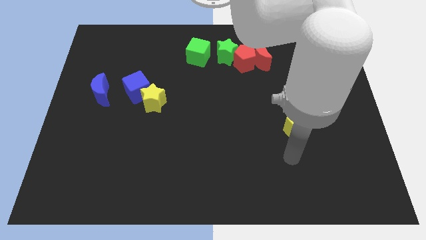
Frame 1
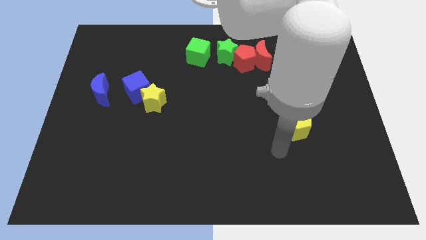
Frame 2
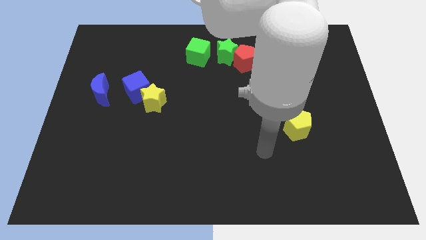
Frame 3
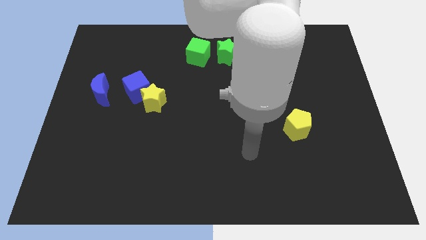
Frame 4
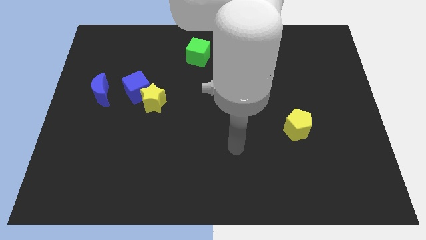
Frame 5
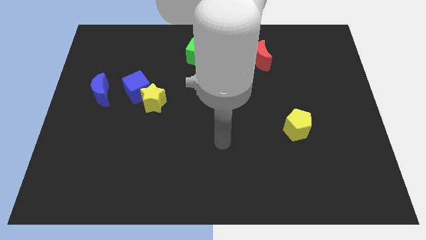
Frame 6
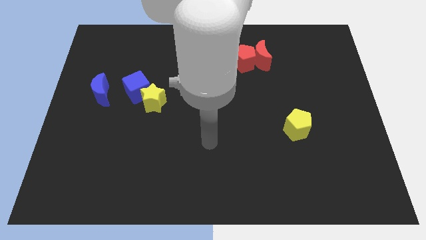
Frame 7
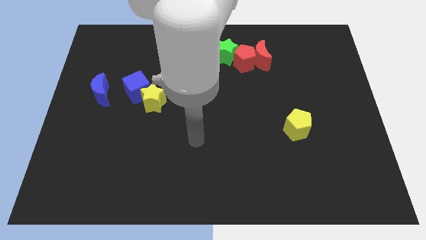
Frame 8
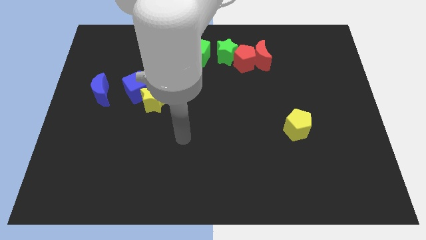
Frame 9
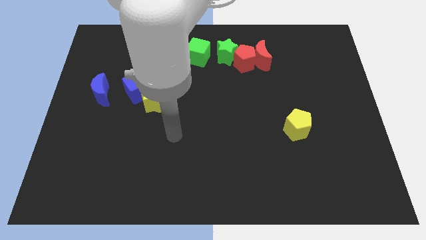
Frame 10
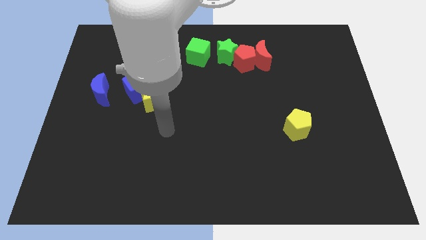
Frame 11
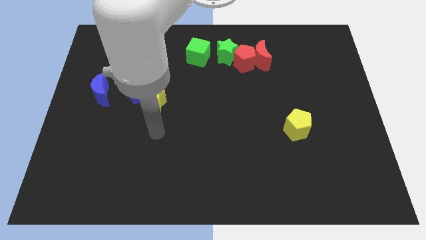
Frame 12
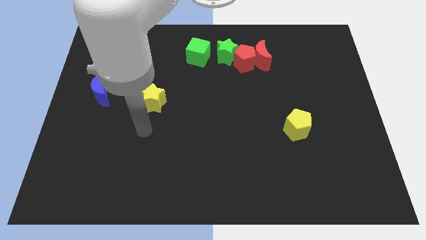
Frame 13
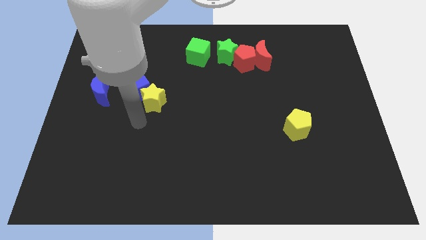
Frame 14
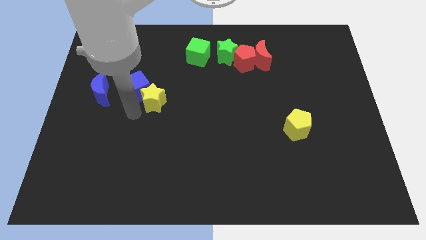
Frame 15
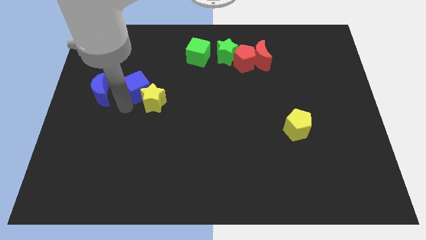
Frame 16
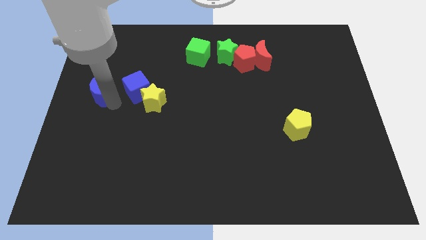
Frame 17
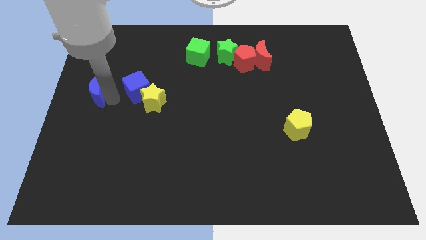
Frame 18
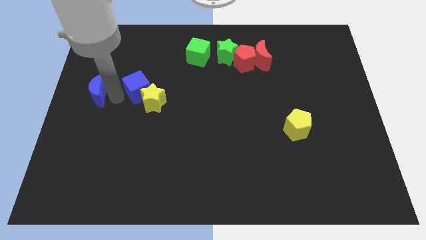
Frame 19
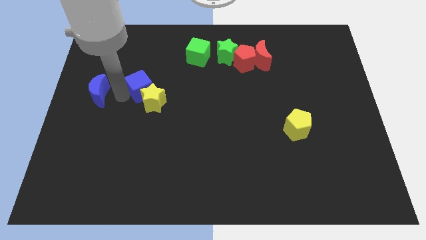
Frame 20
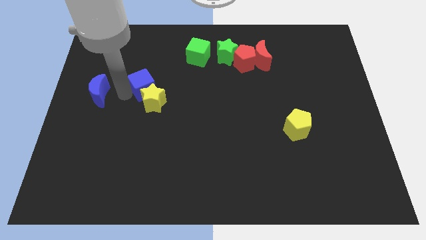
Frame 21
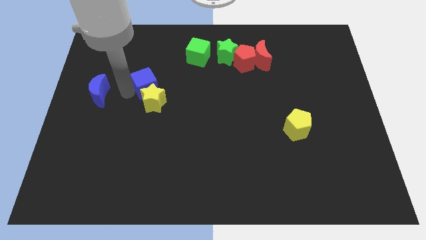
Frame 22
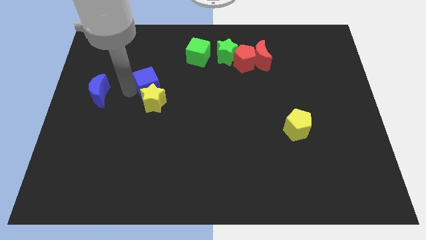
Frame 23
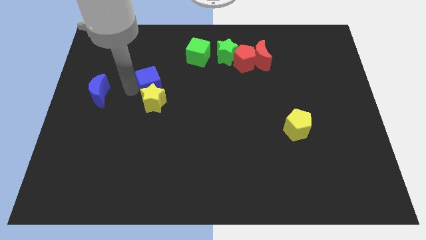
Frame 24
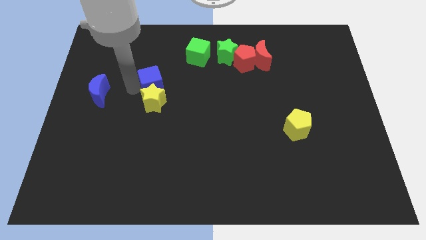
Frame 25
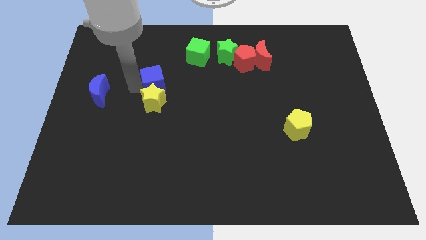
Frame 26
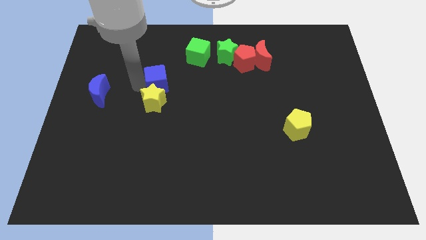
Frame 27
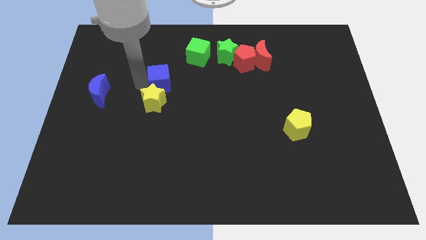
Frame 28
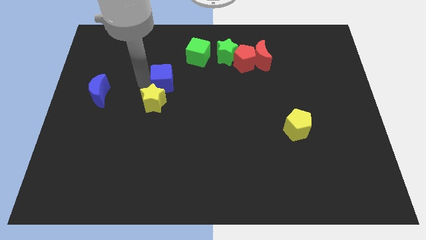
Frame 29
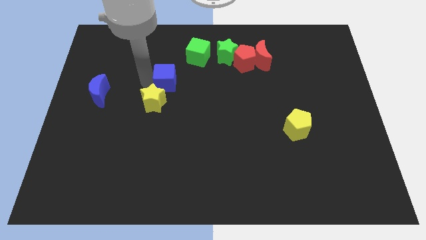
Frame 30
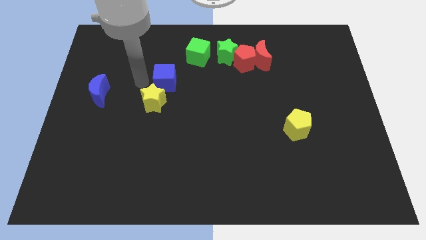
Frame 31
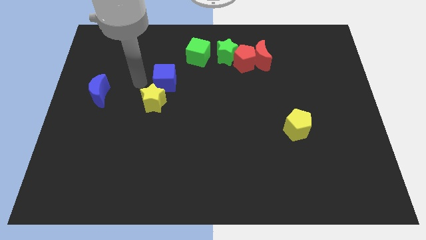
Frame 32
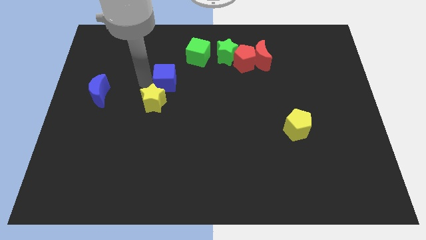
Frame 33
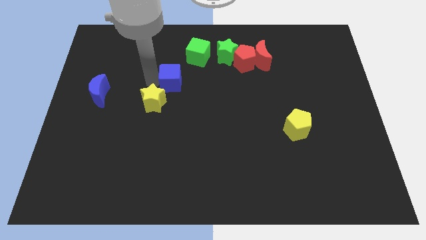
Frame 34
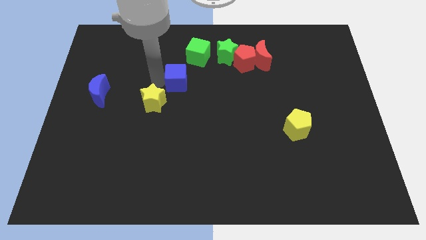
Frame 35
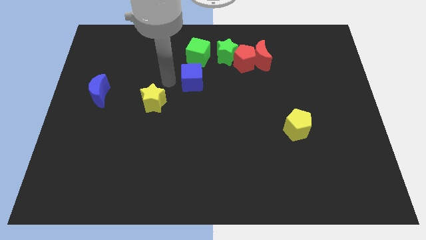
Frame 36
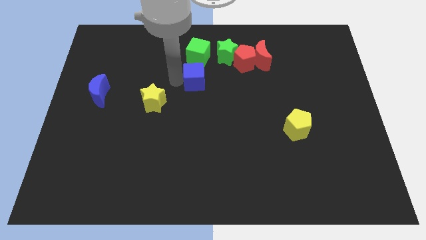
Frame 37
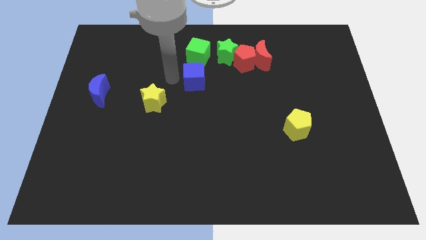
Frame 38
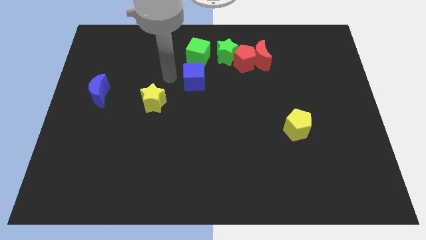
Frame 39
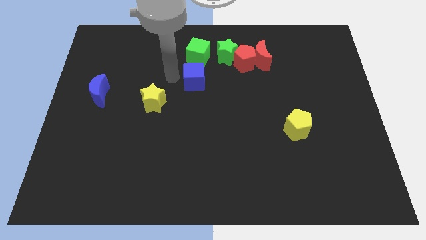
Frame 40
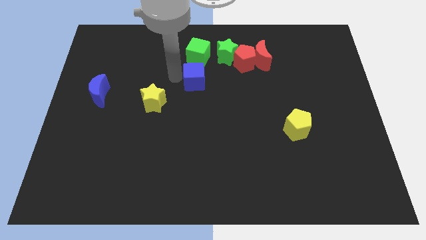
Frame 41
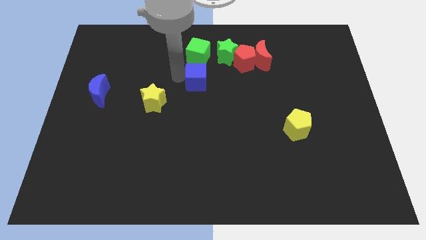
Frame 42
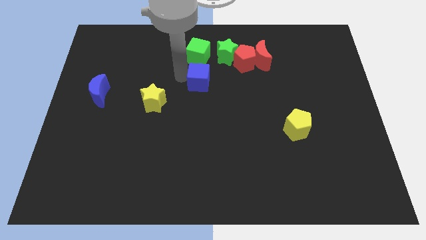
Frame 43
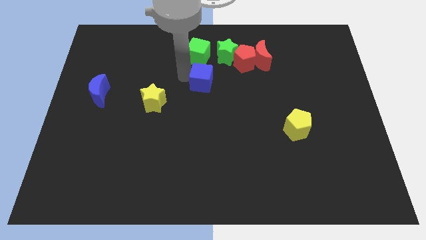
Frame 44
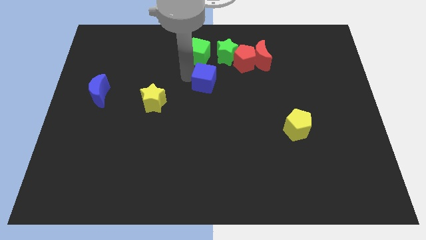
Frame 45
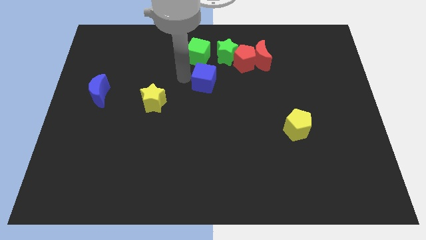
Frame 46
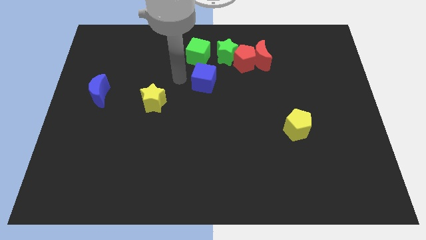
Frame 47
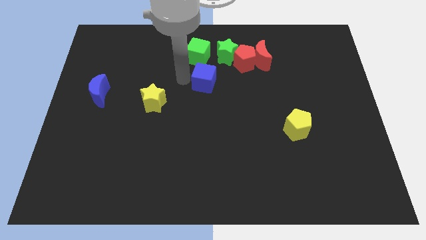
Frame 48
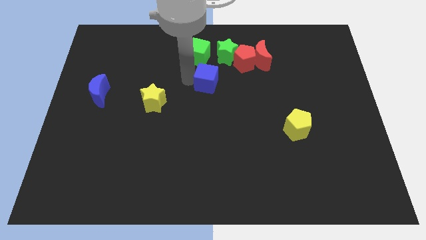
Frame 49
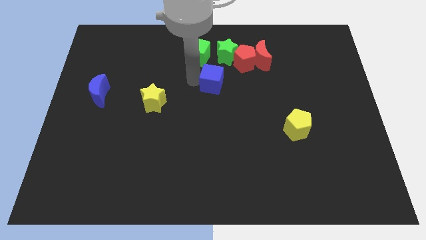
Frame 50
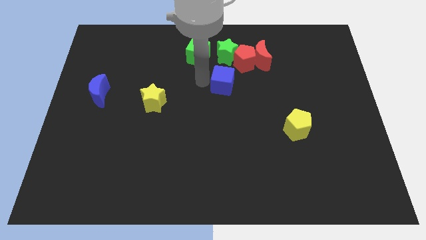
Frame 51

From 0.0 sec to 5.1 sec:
push the blue cube to the right

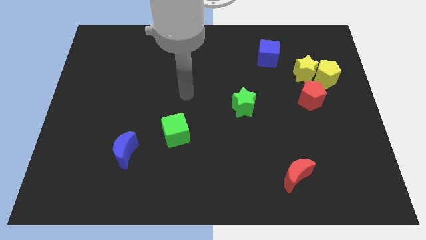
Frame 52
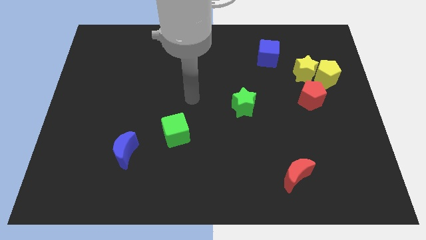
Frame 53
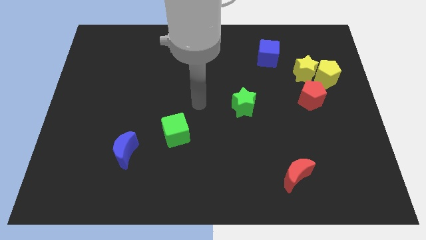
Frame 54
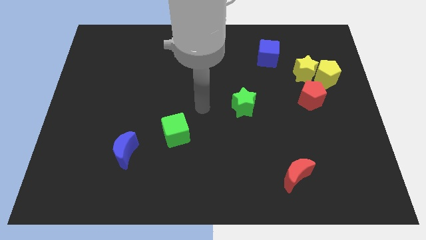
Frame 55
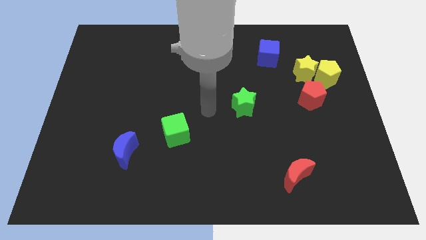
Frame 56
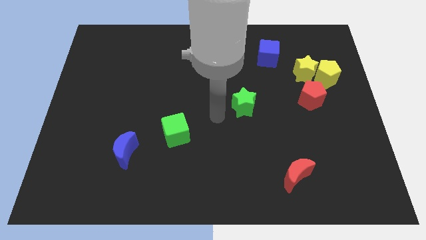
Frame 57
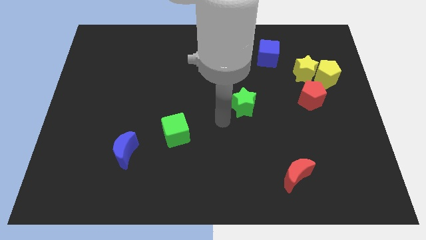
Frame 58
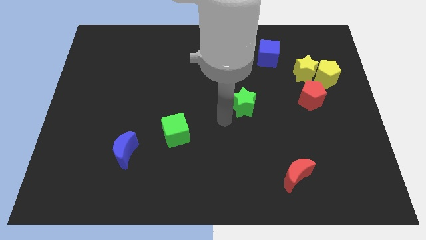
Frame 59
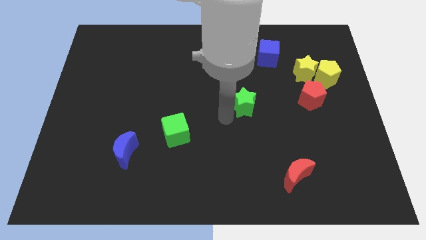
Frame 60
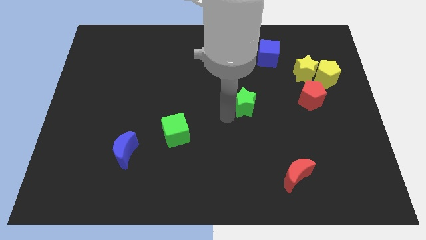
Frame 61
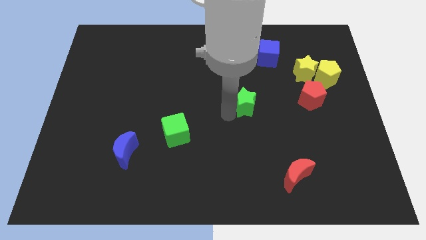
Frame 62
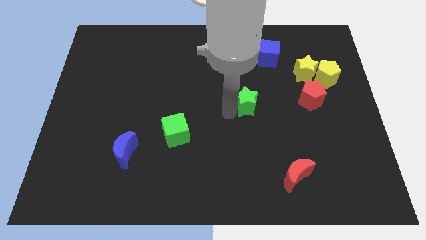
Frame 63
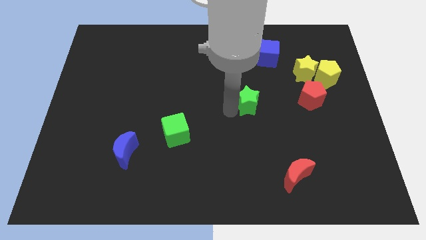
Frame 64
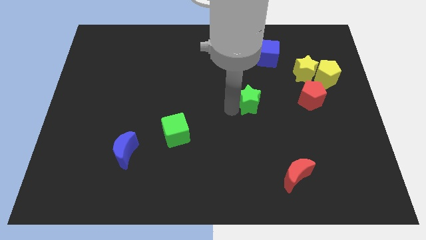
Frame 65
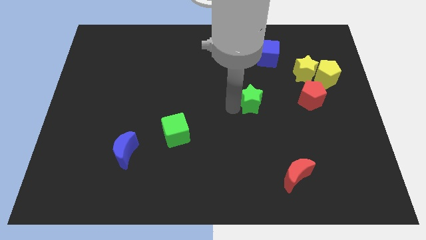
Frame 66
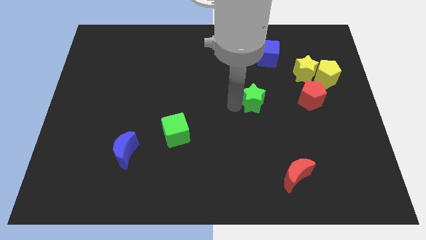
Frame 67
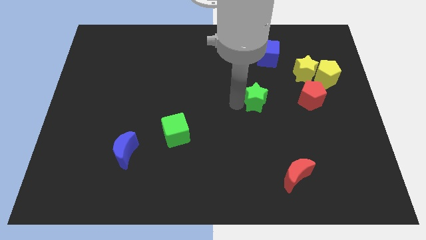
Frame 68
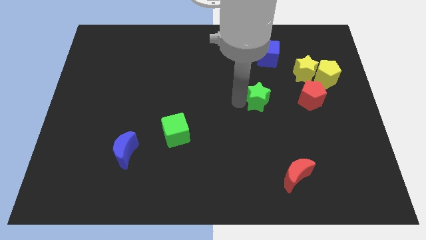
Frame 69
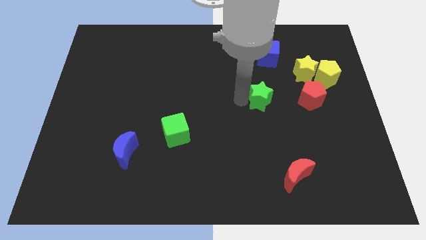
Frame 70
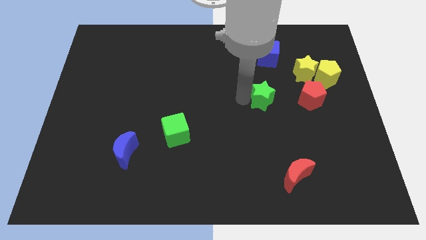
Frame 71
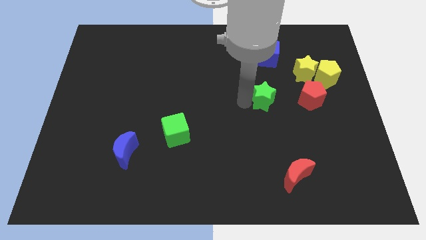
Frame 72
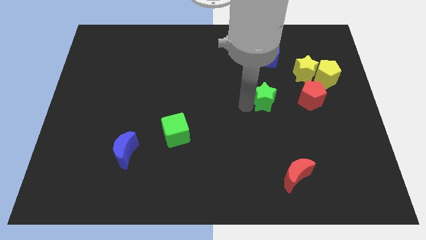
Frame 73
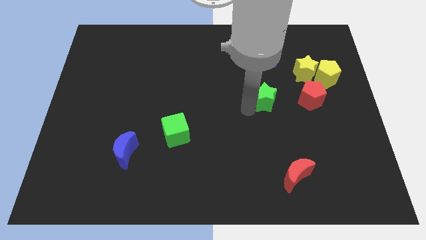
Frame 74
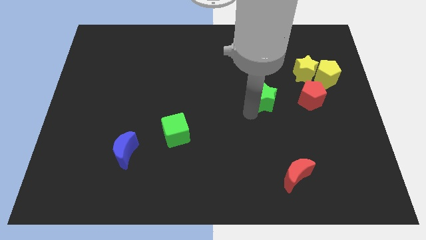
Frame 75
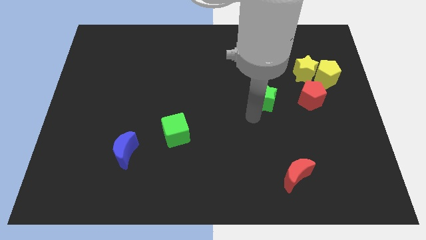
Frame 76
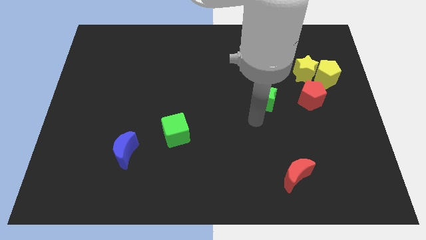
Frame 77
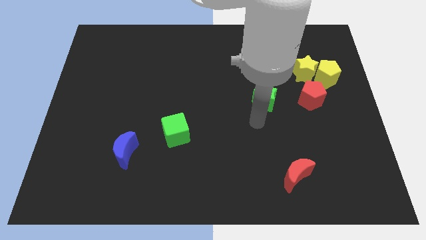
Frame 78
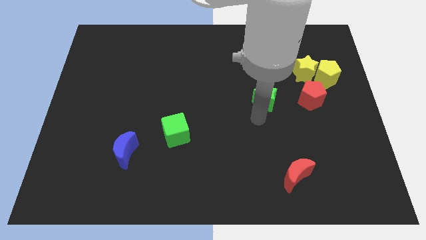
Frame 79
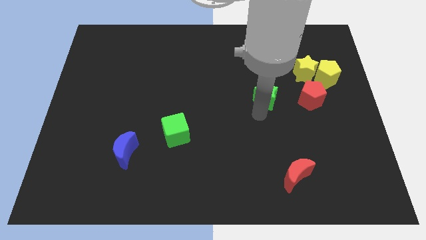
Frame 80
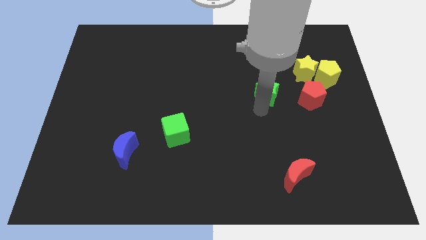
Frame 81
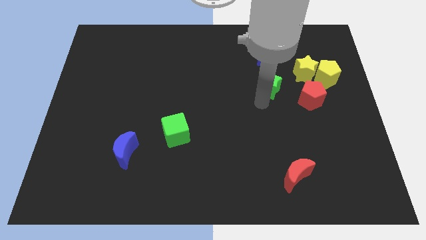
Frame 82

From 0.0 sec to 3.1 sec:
move the green star up and right a little
